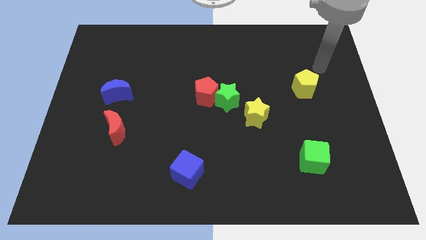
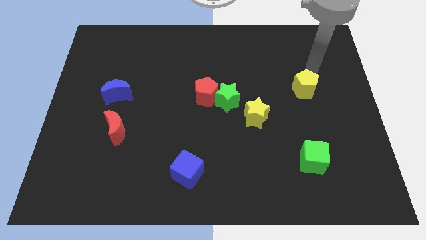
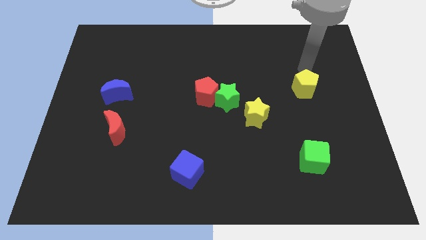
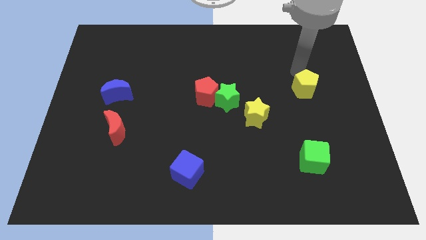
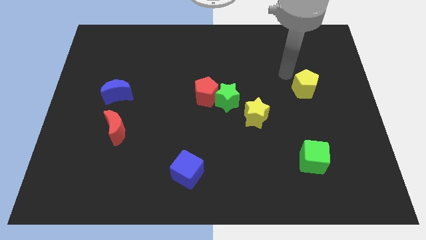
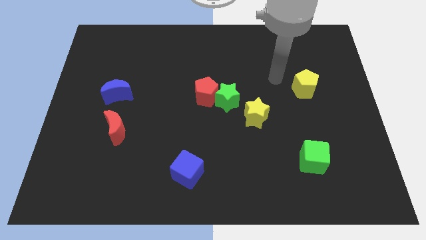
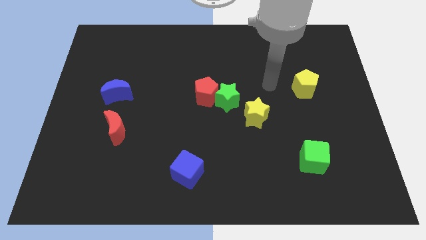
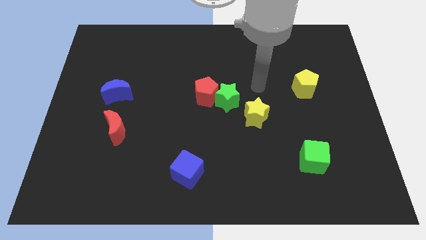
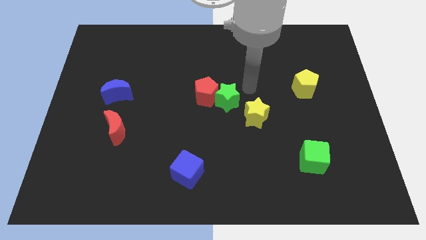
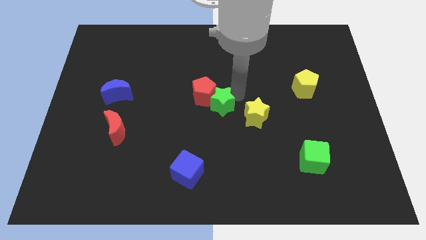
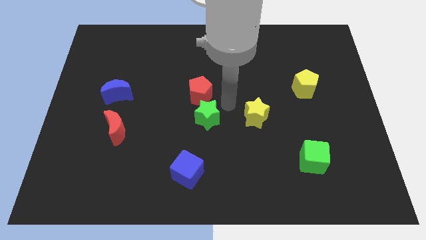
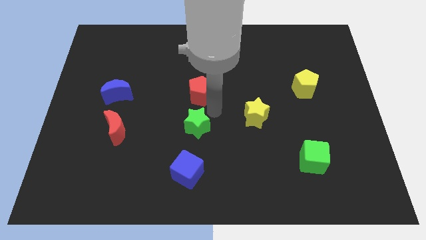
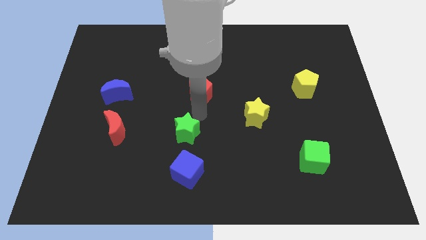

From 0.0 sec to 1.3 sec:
pull the red pentagon apart from the green star

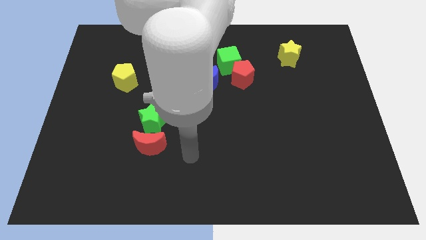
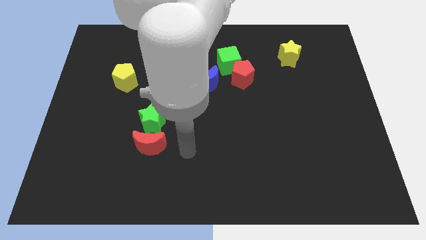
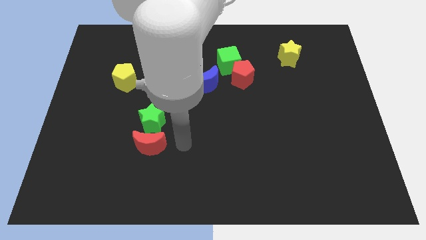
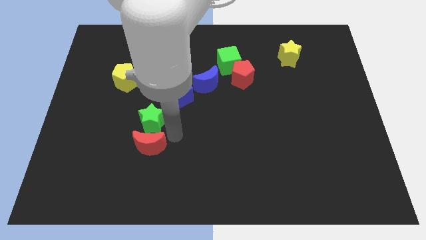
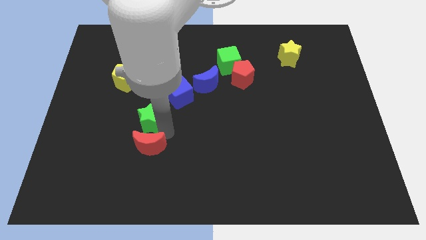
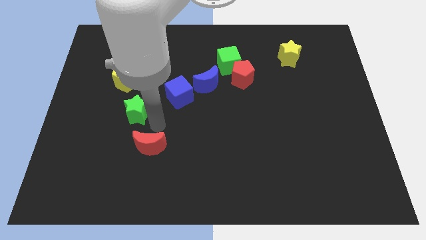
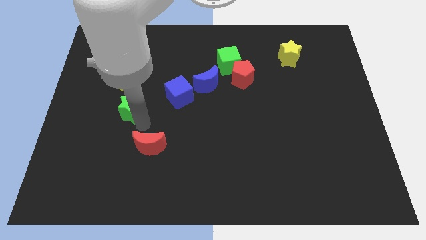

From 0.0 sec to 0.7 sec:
move the red moon away from the green star

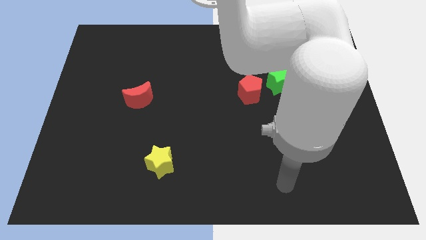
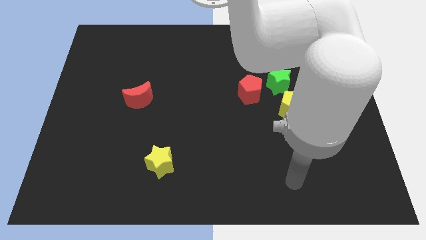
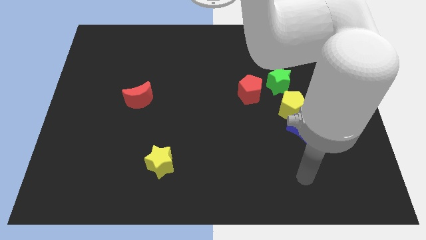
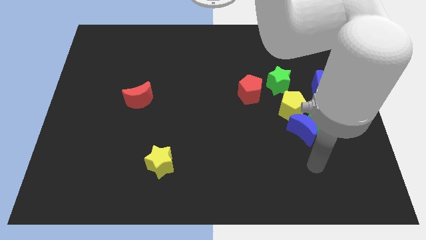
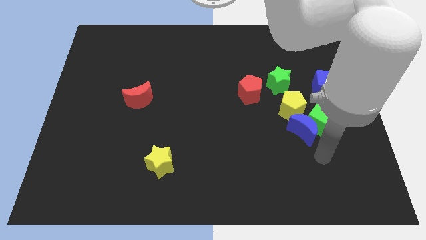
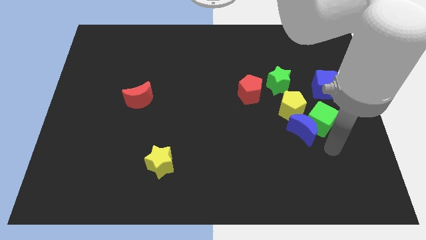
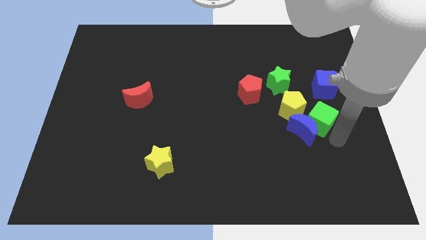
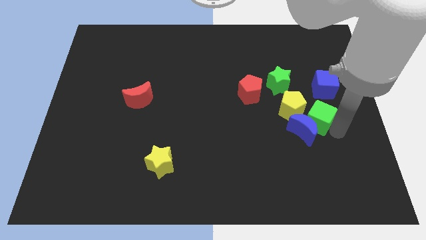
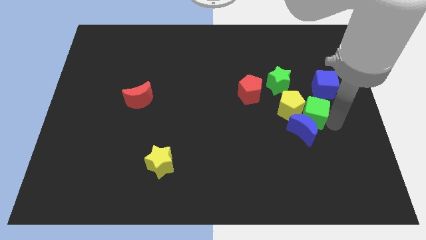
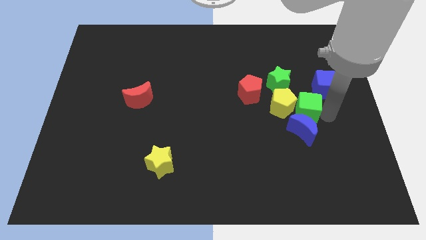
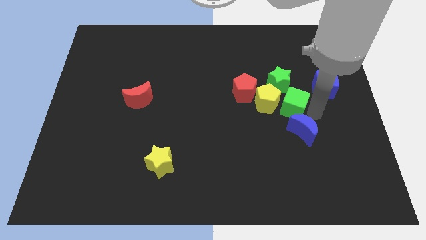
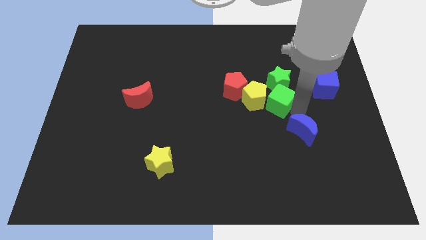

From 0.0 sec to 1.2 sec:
pull the blue moon apart from the green cube and yellow pentagon

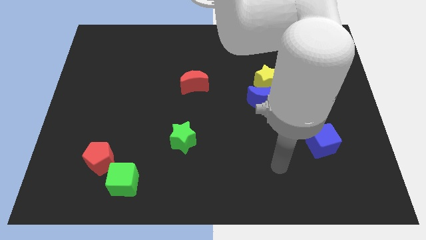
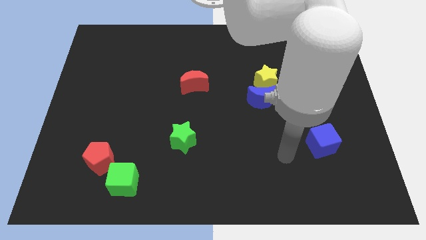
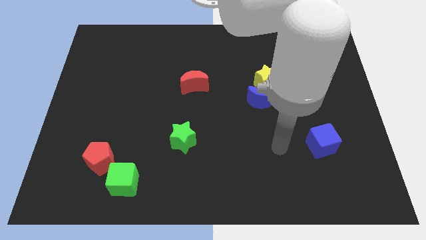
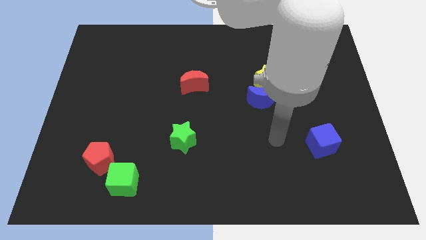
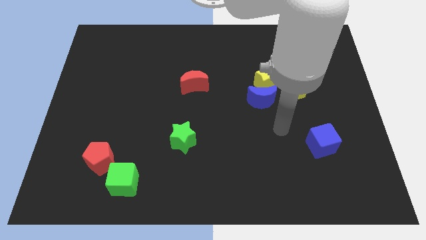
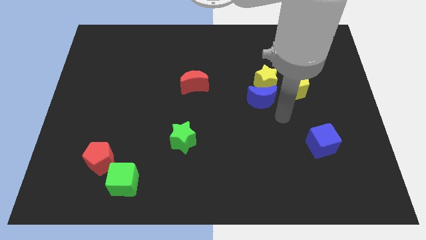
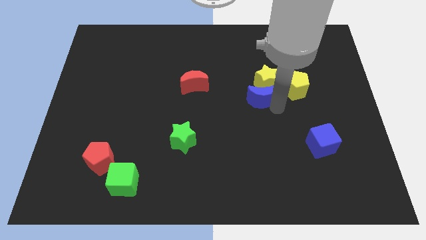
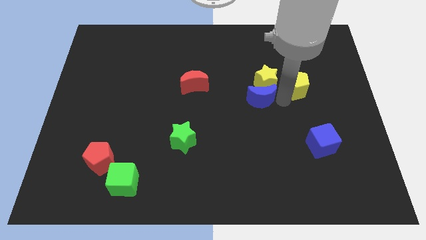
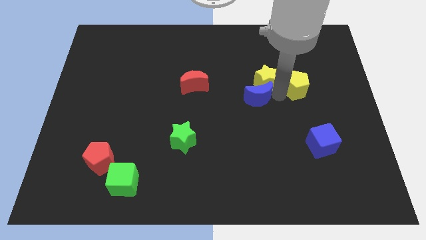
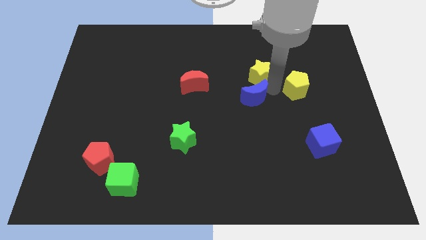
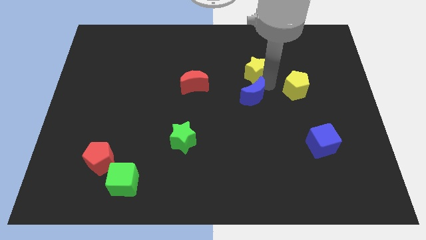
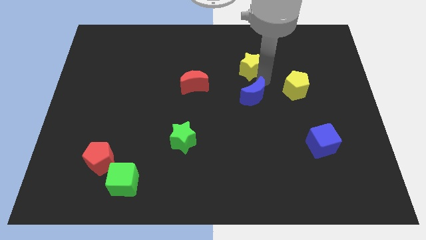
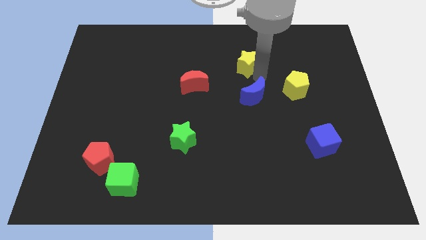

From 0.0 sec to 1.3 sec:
separate the yellow star from the blue moon and yellow pentagon

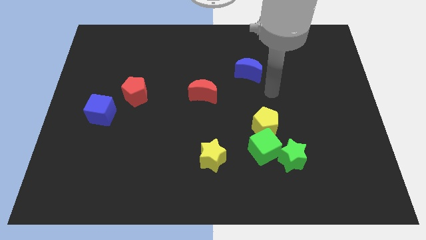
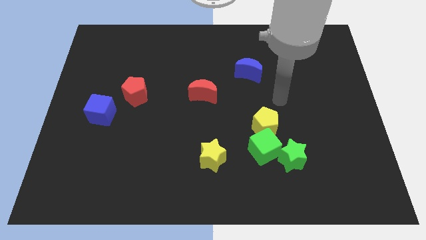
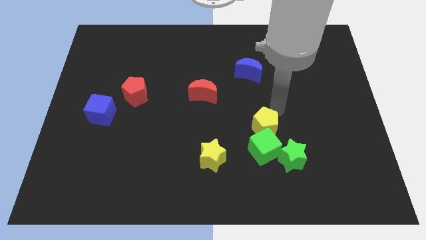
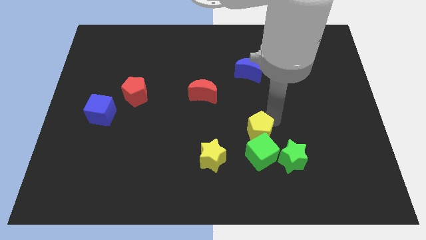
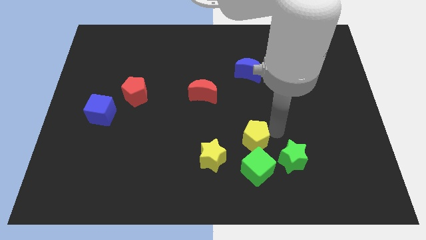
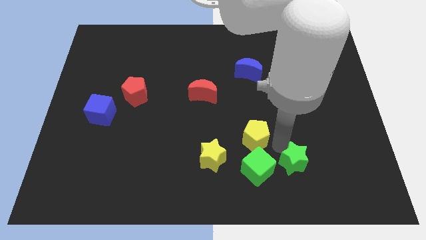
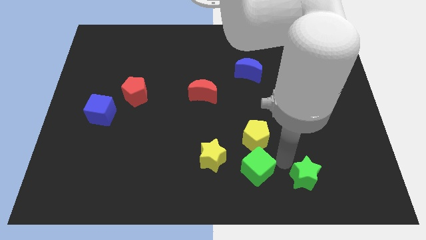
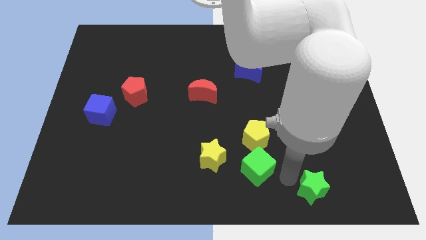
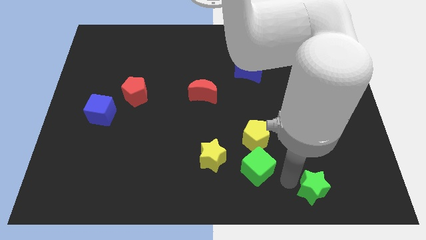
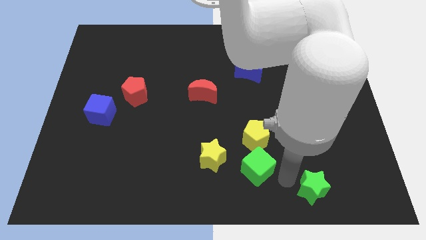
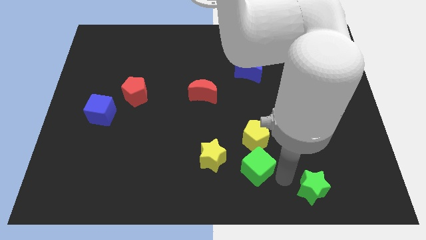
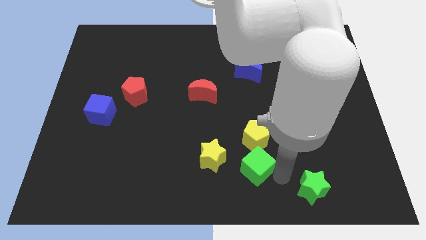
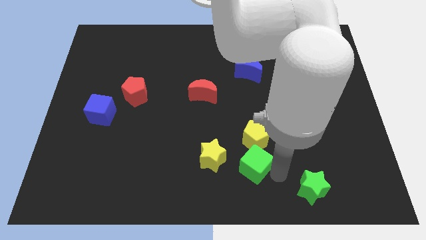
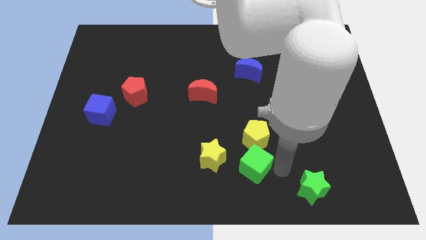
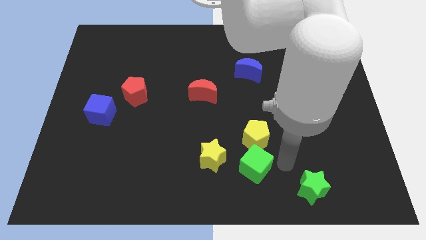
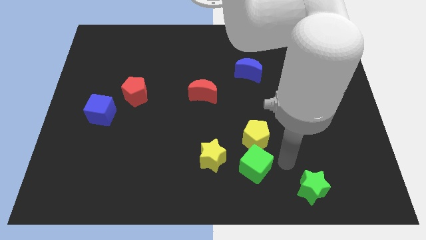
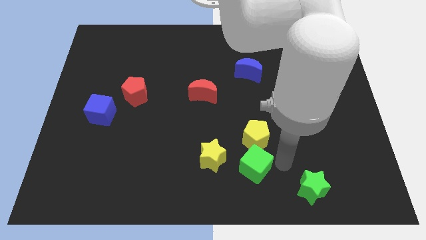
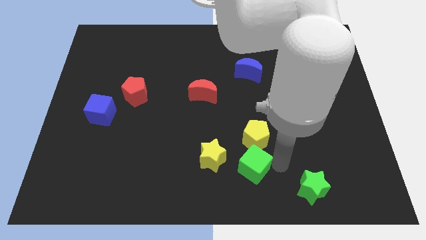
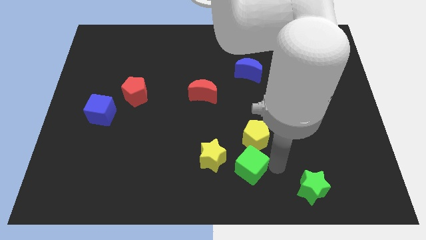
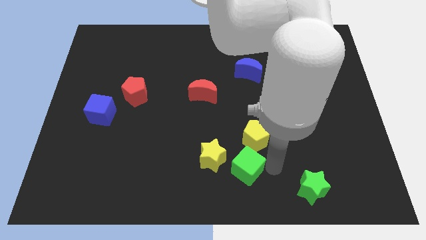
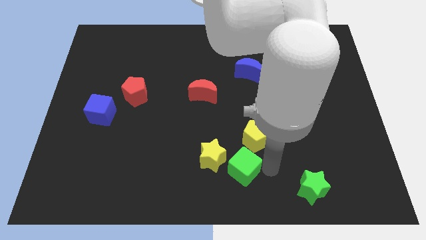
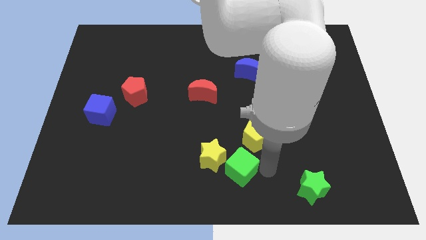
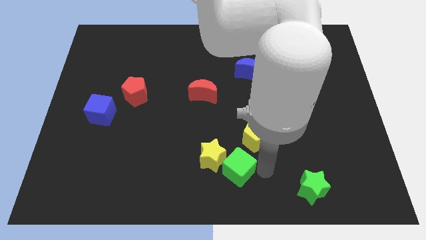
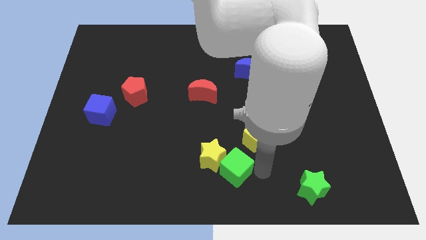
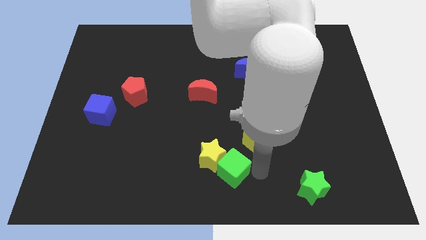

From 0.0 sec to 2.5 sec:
separate the green cube from the green star and yellow pentagon

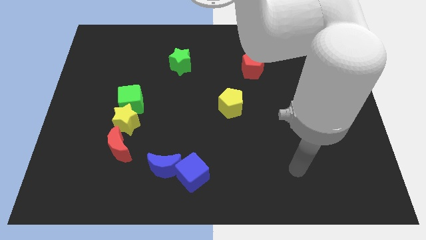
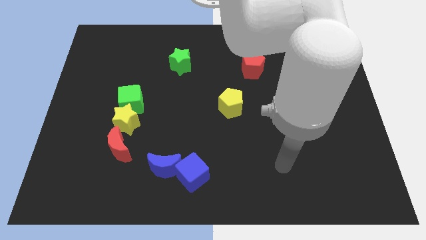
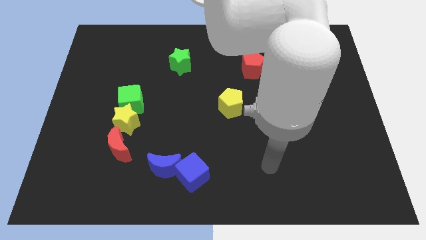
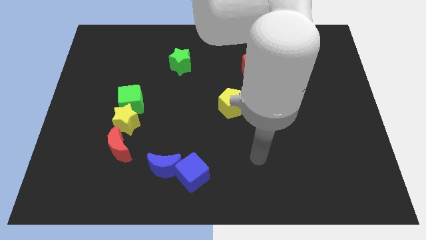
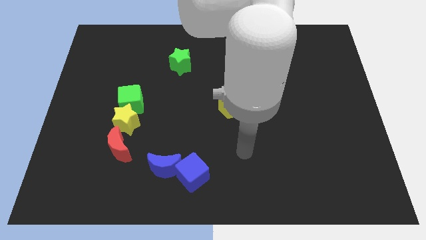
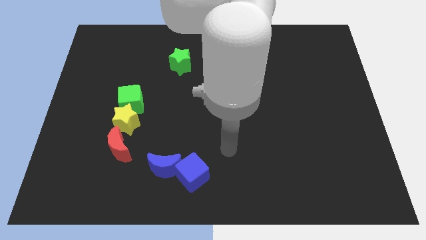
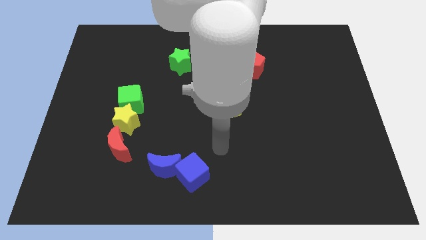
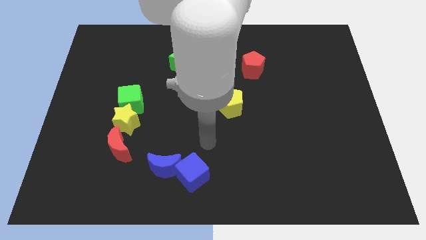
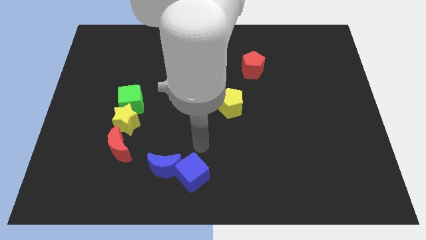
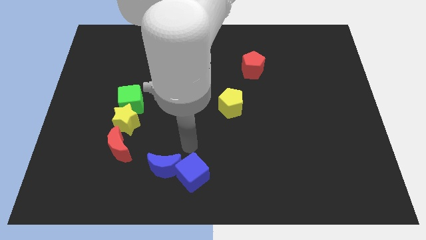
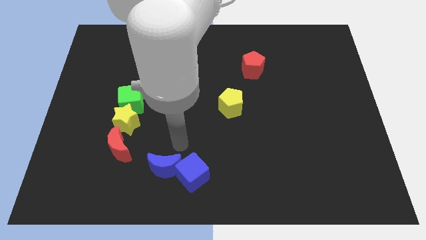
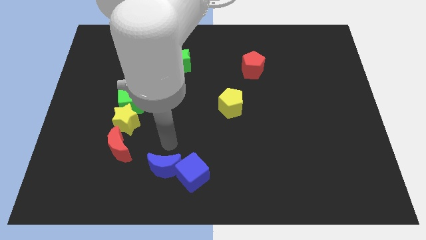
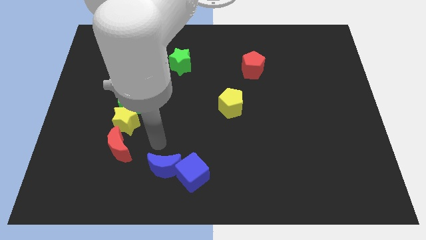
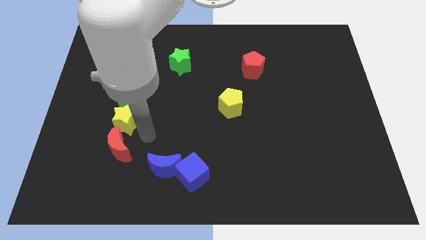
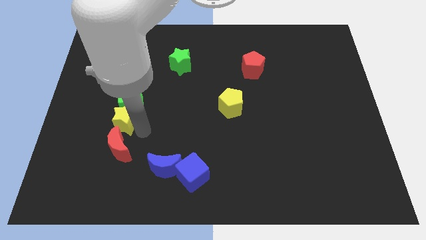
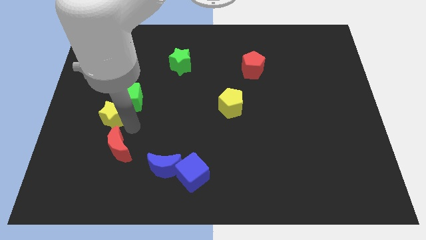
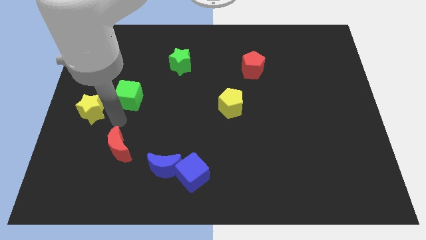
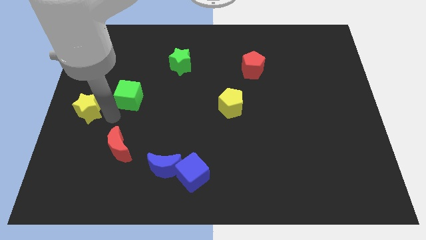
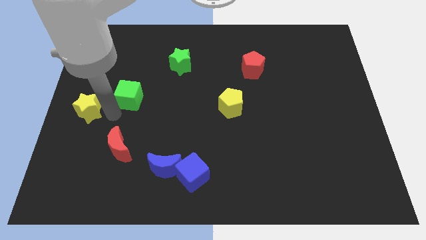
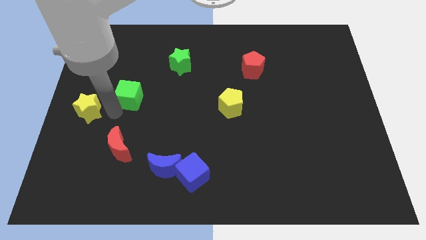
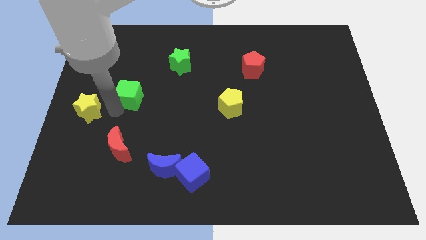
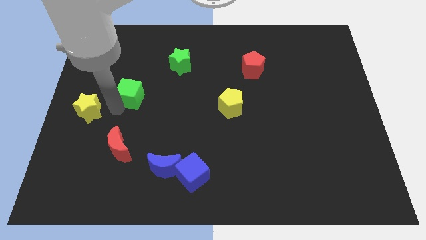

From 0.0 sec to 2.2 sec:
separate the green cube from the yellow star
